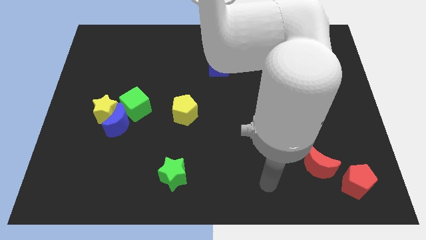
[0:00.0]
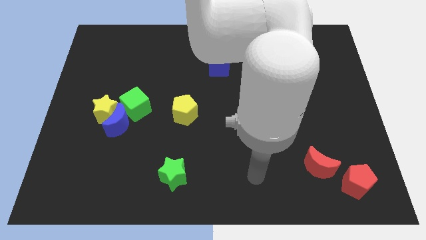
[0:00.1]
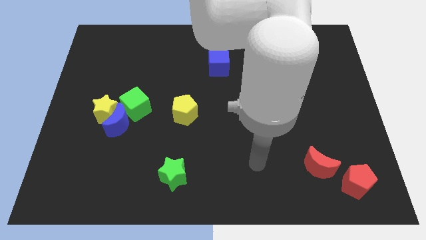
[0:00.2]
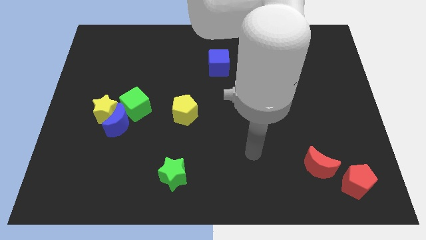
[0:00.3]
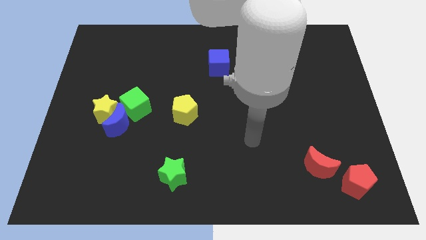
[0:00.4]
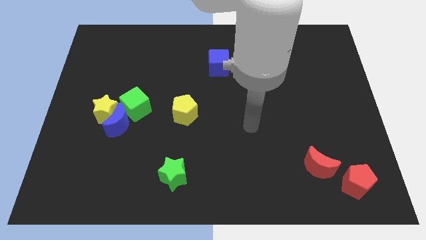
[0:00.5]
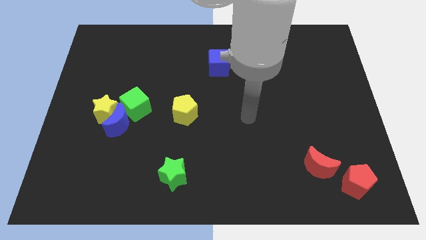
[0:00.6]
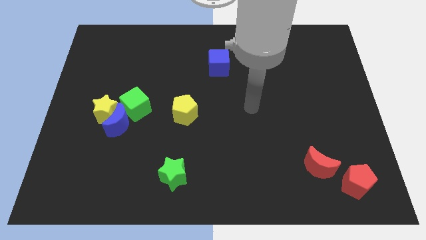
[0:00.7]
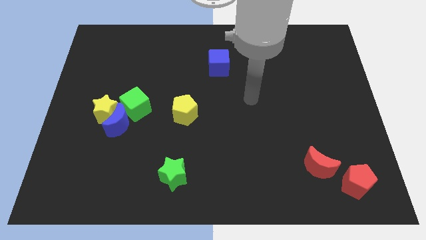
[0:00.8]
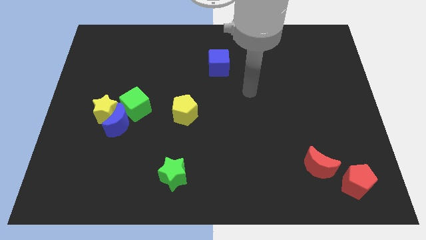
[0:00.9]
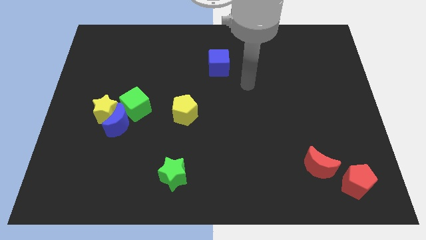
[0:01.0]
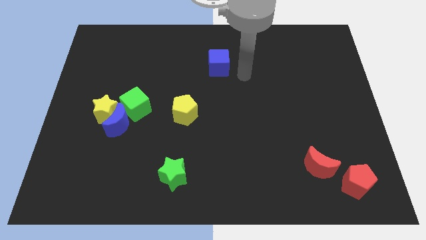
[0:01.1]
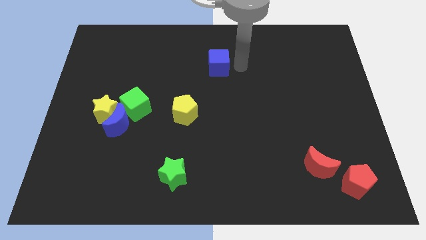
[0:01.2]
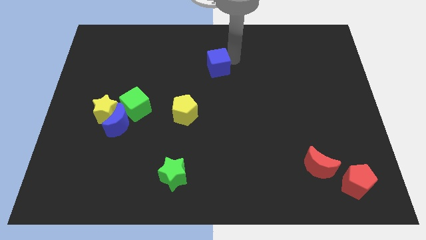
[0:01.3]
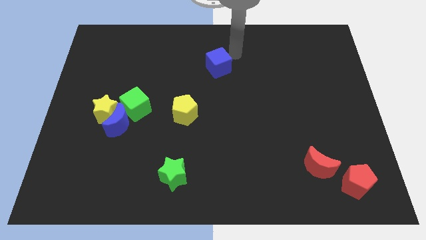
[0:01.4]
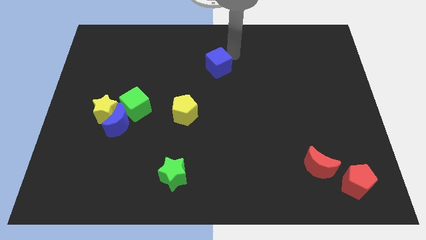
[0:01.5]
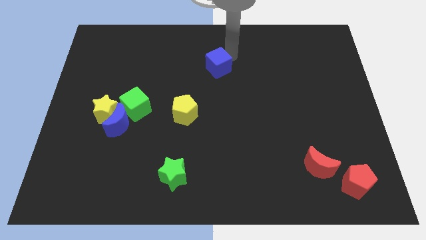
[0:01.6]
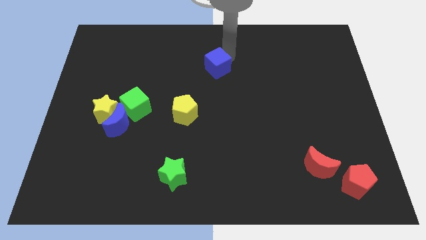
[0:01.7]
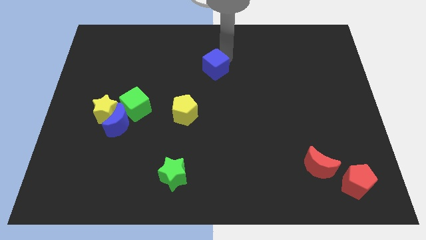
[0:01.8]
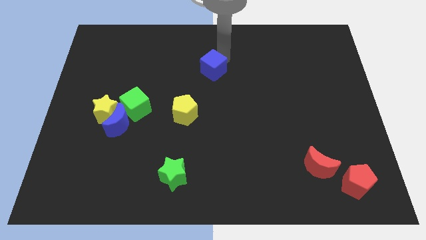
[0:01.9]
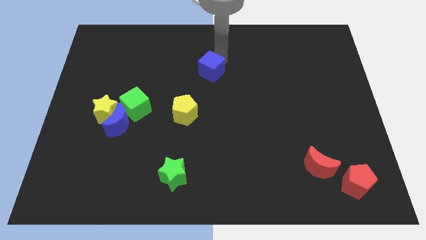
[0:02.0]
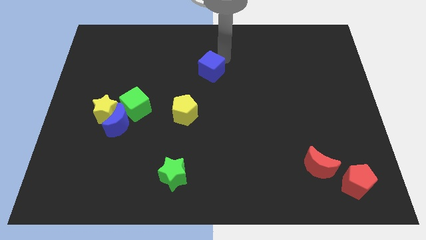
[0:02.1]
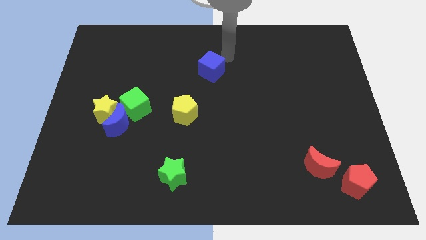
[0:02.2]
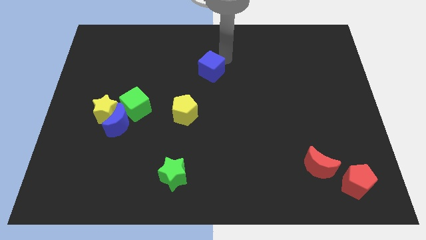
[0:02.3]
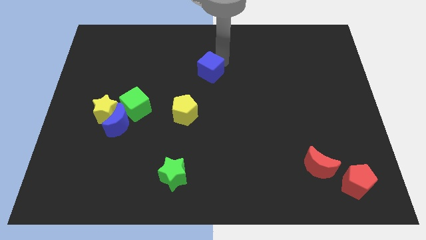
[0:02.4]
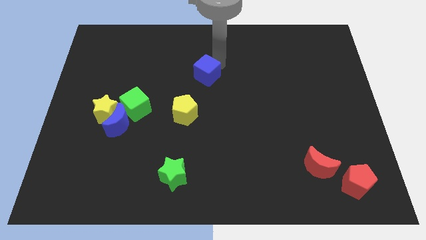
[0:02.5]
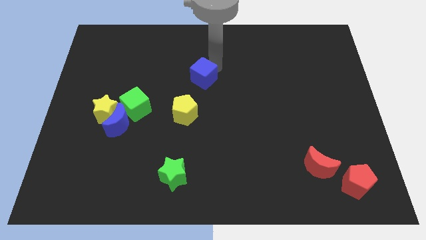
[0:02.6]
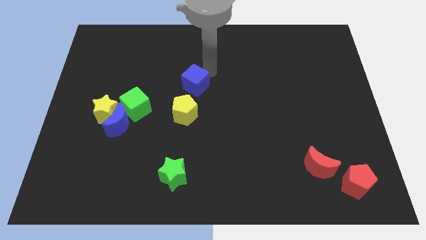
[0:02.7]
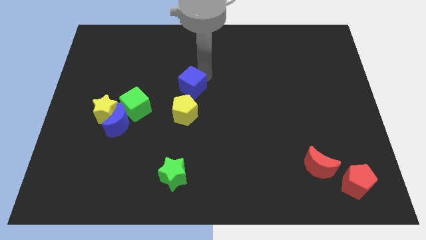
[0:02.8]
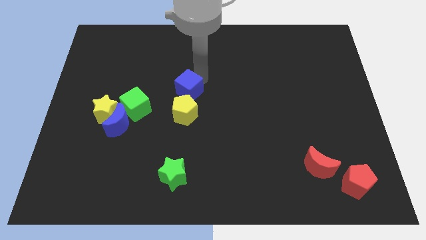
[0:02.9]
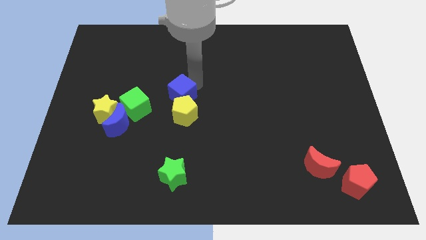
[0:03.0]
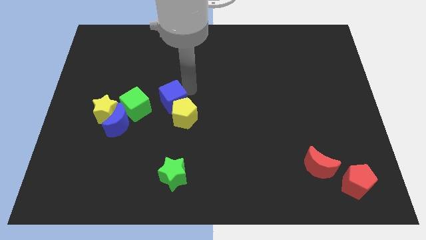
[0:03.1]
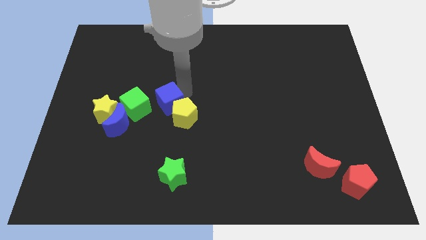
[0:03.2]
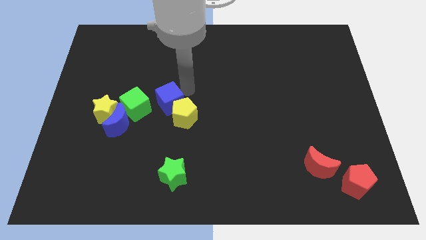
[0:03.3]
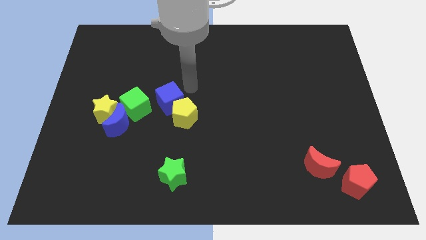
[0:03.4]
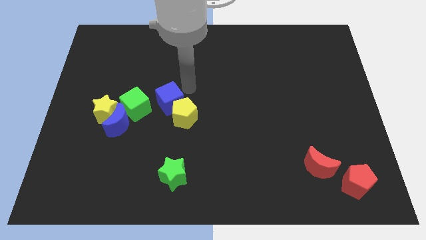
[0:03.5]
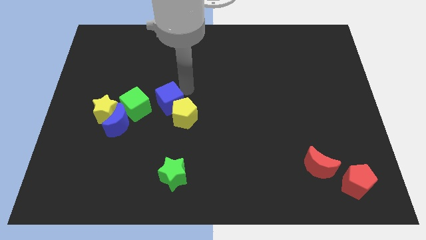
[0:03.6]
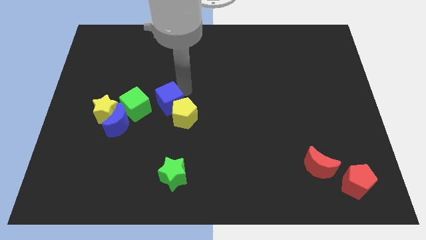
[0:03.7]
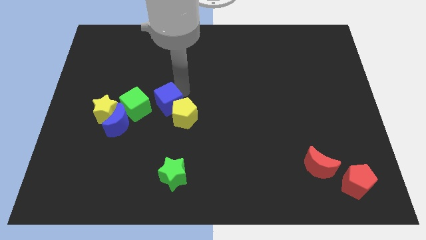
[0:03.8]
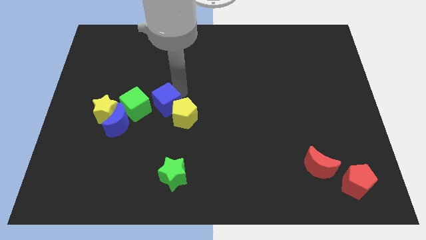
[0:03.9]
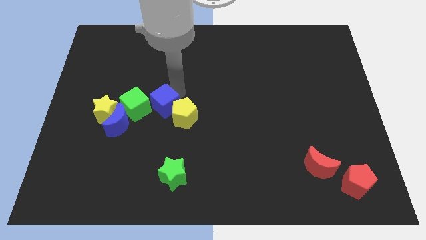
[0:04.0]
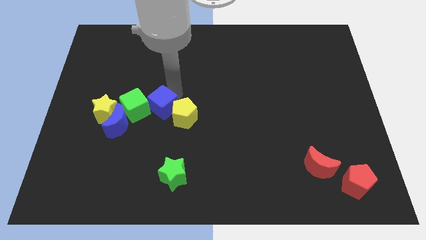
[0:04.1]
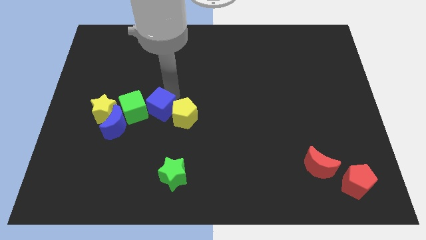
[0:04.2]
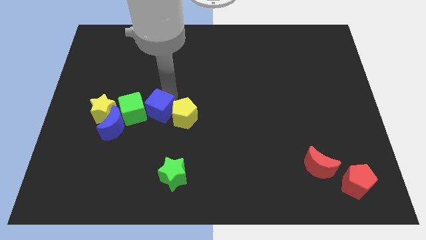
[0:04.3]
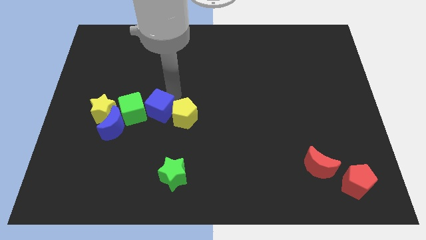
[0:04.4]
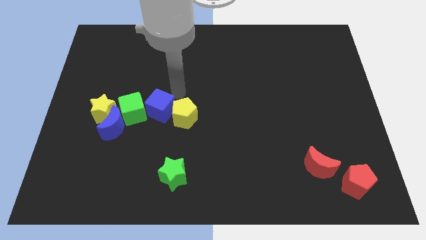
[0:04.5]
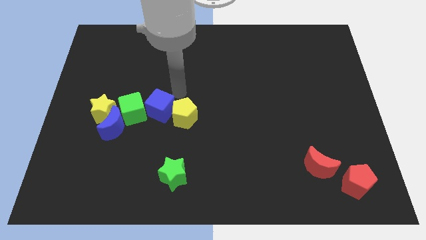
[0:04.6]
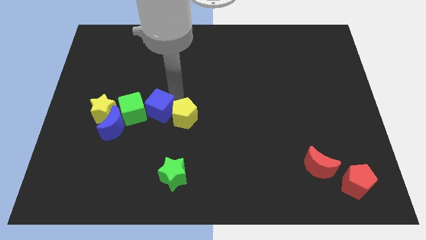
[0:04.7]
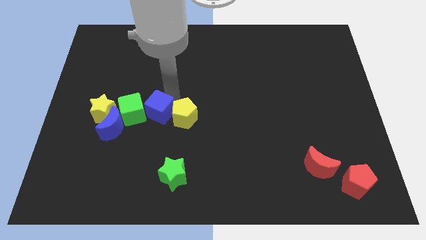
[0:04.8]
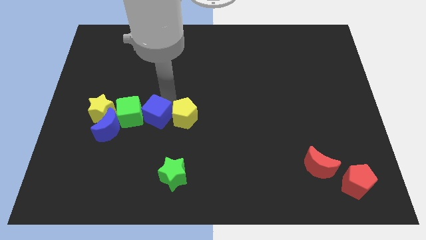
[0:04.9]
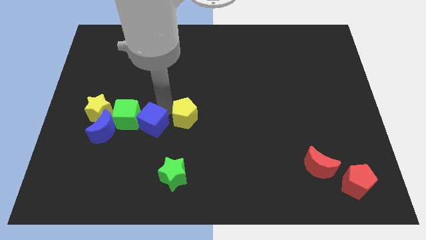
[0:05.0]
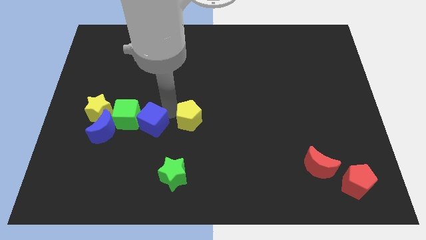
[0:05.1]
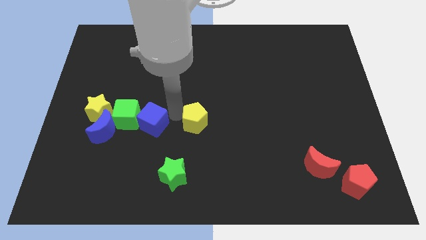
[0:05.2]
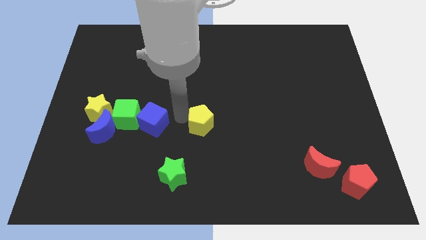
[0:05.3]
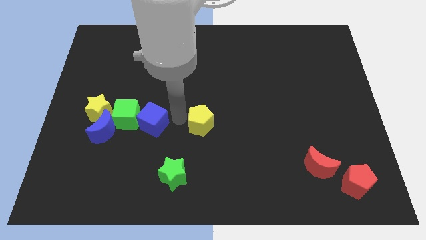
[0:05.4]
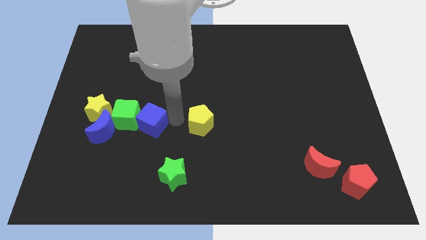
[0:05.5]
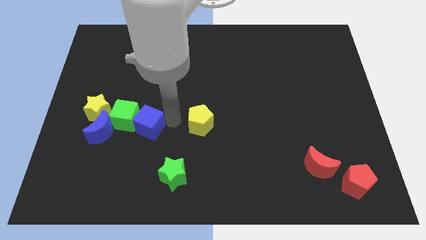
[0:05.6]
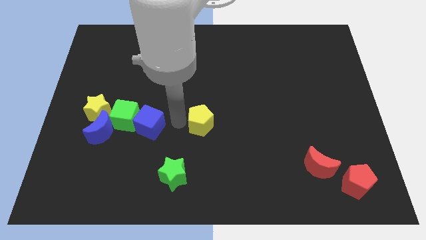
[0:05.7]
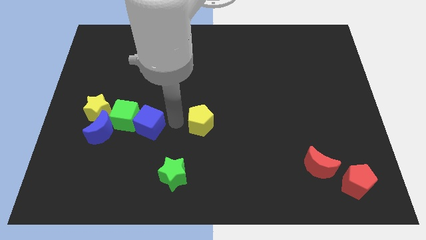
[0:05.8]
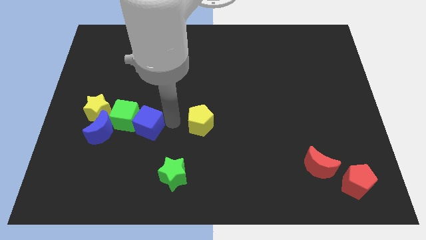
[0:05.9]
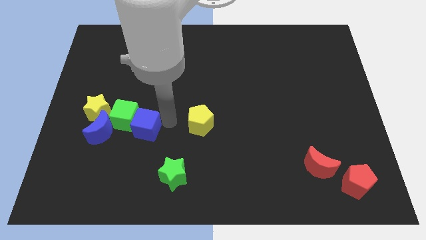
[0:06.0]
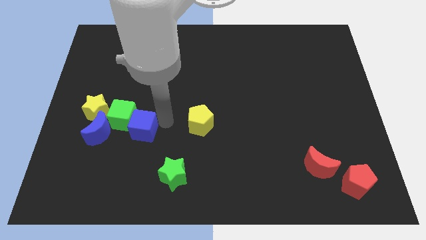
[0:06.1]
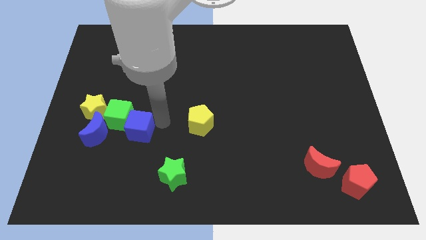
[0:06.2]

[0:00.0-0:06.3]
move the blue cube to the bottom right of the yellow star
